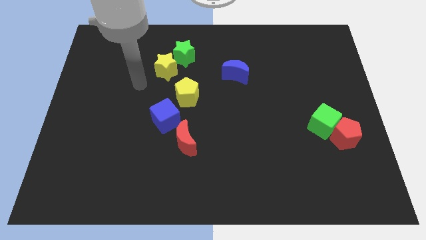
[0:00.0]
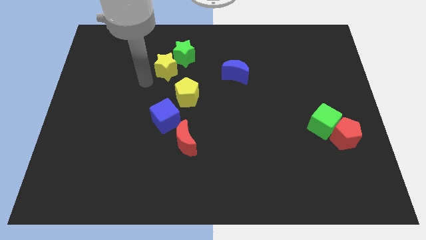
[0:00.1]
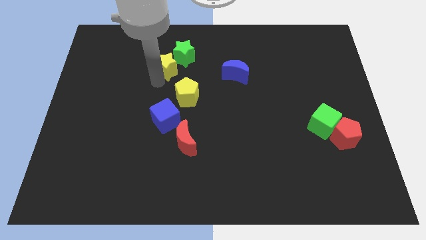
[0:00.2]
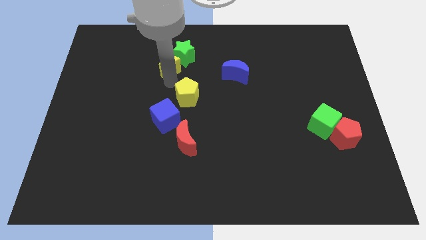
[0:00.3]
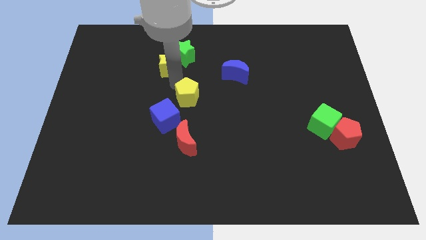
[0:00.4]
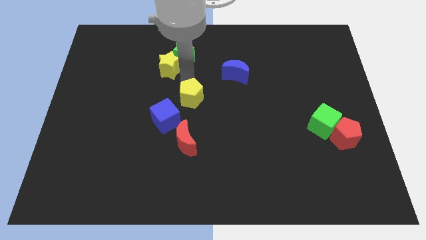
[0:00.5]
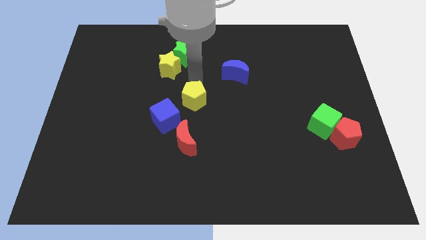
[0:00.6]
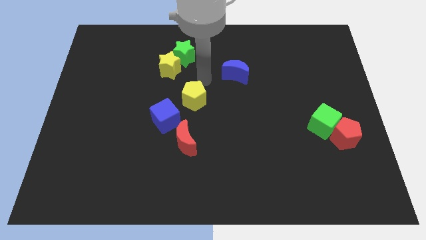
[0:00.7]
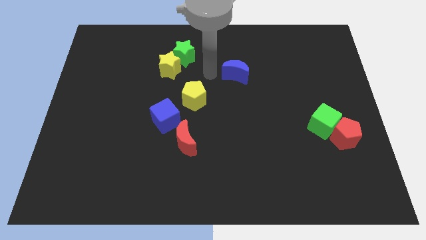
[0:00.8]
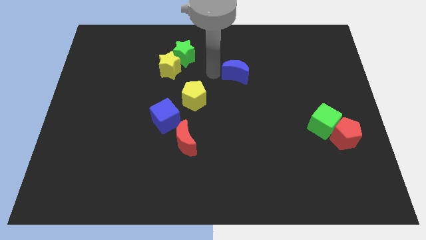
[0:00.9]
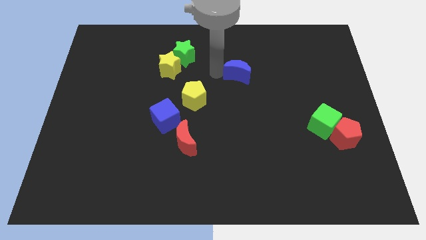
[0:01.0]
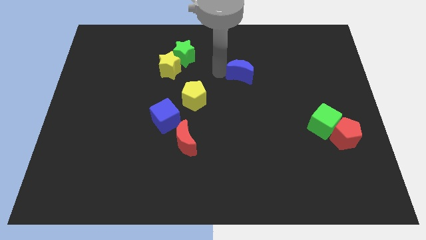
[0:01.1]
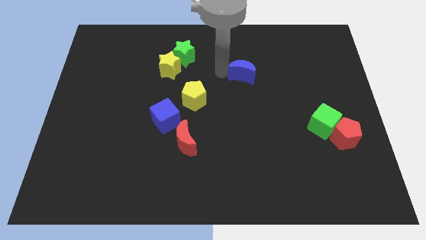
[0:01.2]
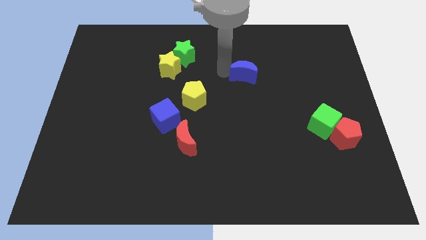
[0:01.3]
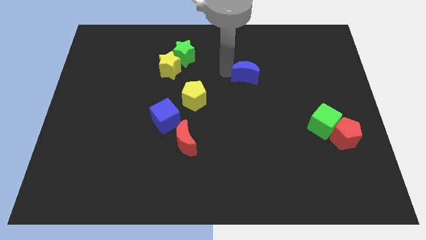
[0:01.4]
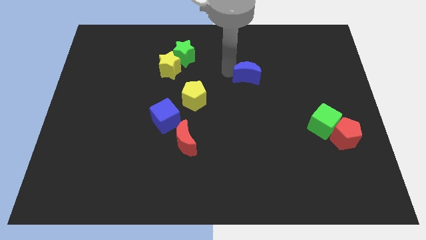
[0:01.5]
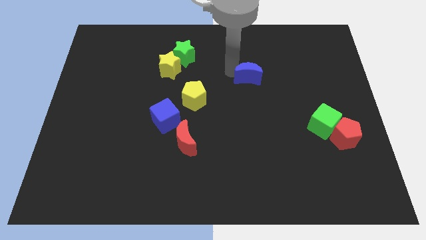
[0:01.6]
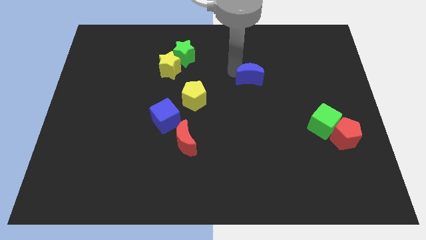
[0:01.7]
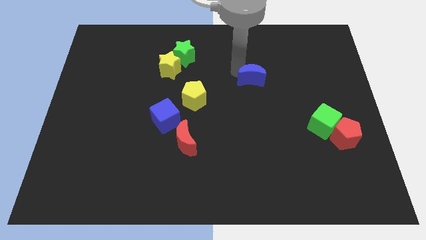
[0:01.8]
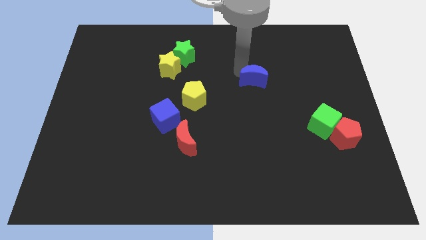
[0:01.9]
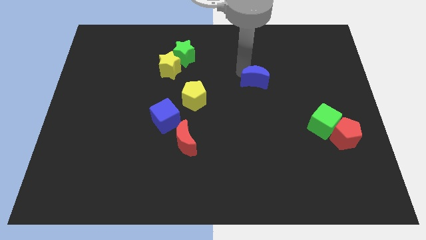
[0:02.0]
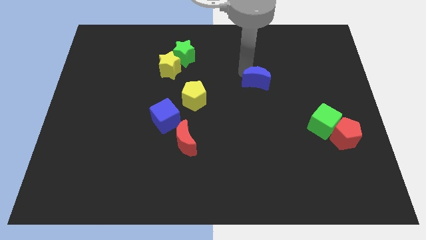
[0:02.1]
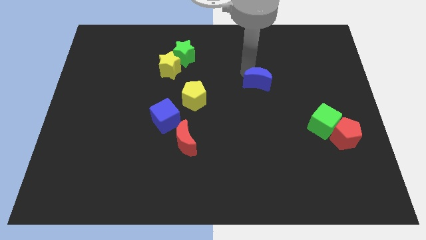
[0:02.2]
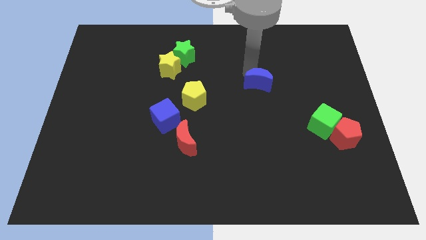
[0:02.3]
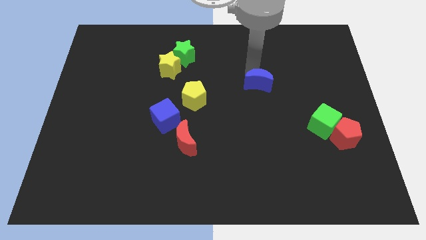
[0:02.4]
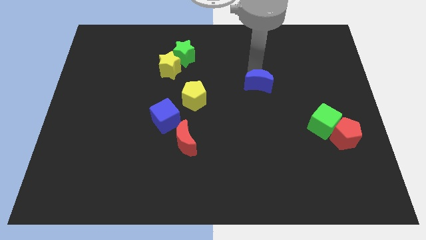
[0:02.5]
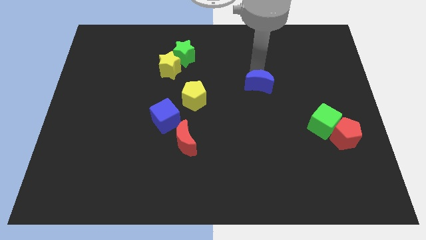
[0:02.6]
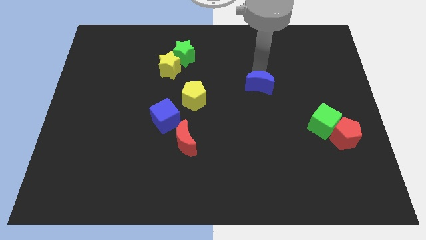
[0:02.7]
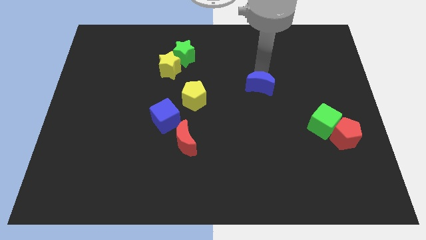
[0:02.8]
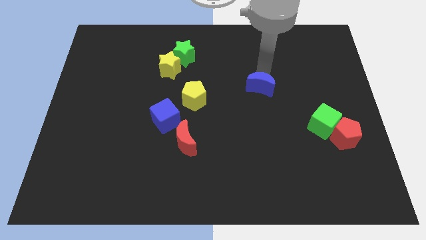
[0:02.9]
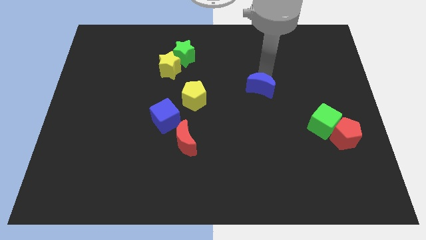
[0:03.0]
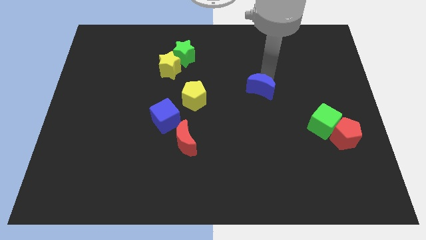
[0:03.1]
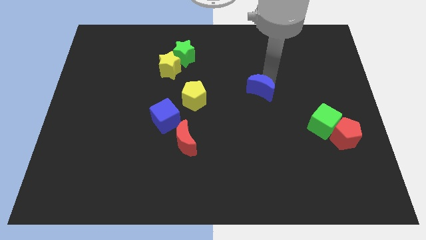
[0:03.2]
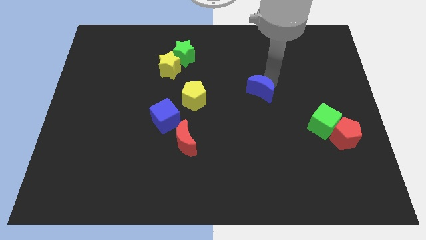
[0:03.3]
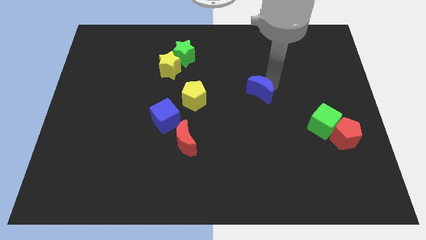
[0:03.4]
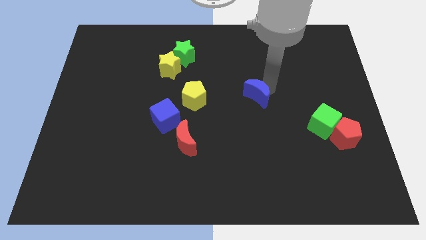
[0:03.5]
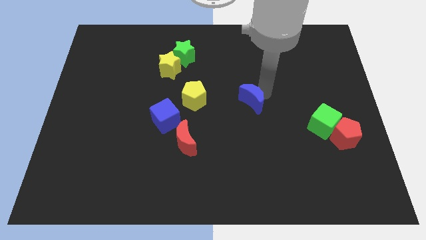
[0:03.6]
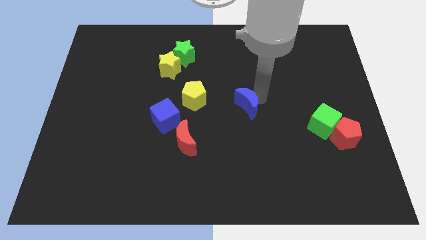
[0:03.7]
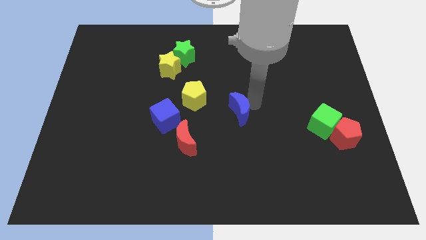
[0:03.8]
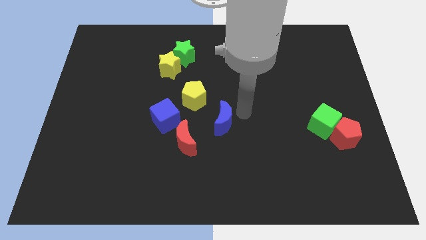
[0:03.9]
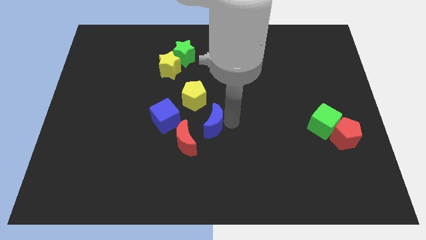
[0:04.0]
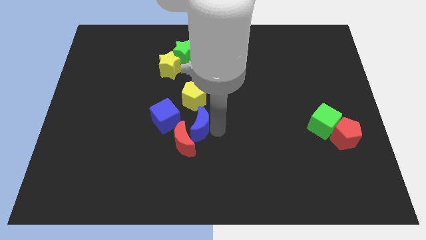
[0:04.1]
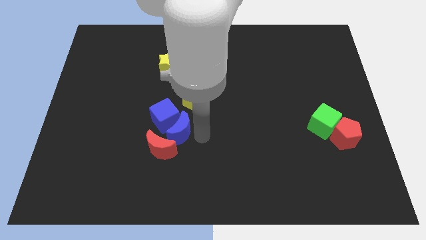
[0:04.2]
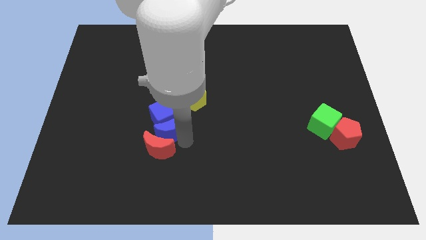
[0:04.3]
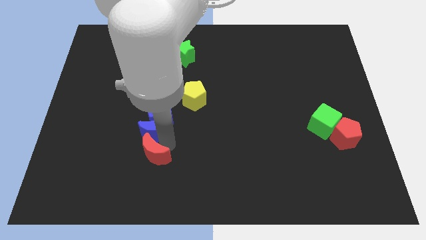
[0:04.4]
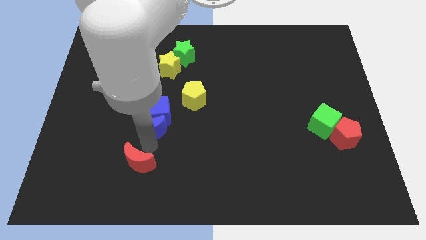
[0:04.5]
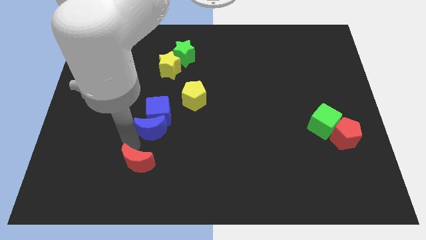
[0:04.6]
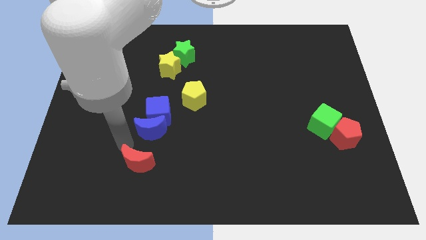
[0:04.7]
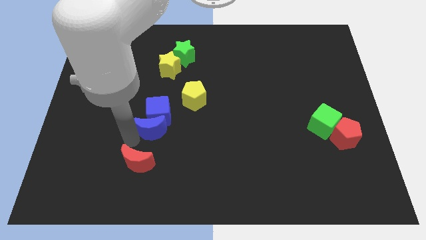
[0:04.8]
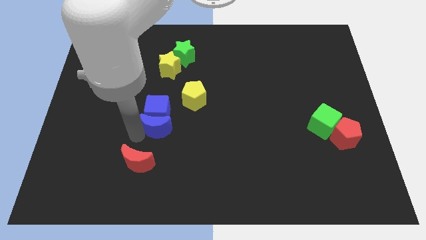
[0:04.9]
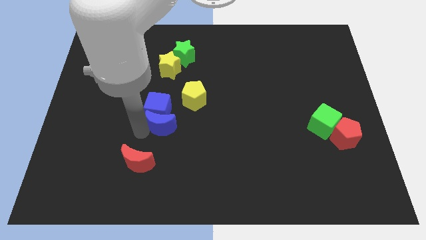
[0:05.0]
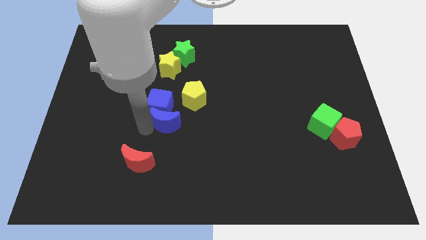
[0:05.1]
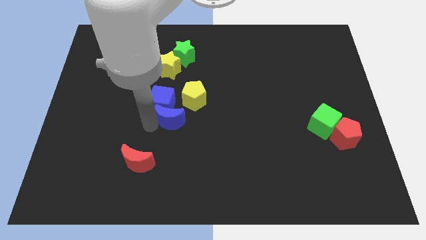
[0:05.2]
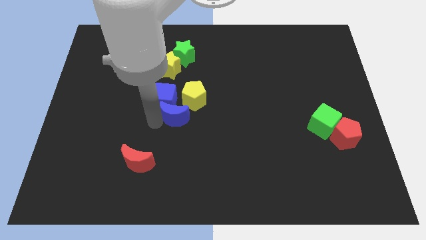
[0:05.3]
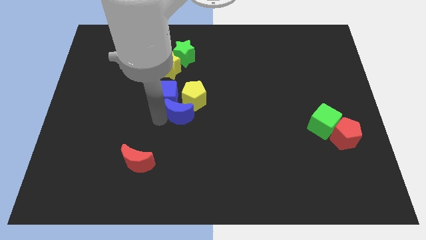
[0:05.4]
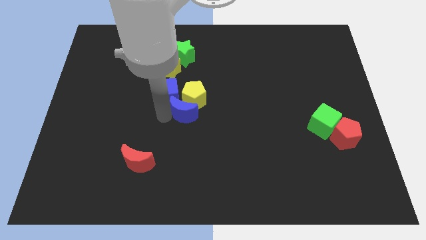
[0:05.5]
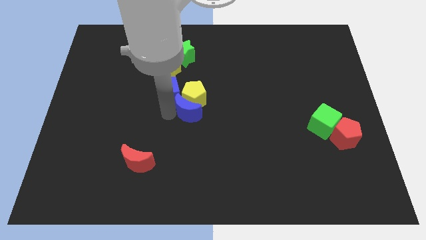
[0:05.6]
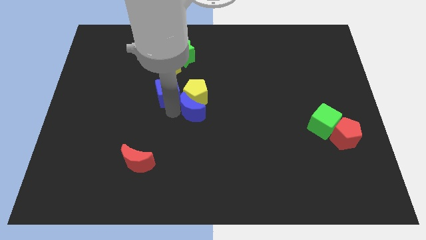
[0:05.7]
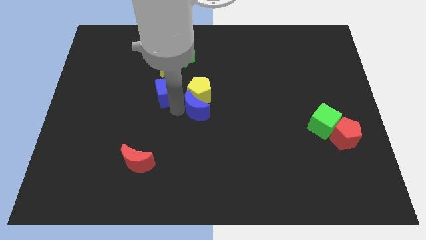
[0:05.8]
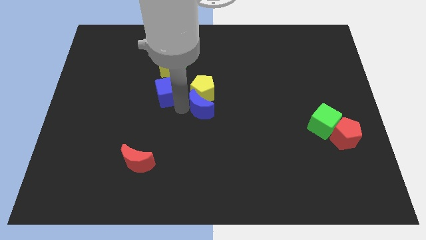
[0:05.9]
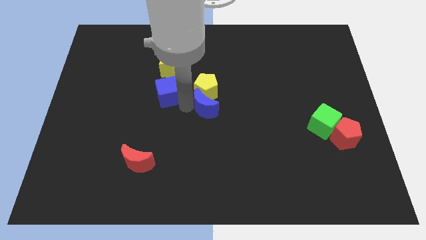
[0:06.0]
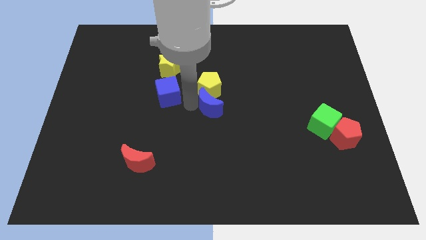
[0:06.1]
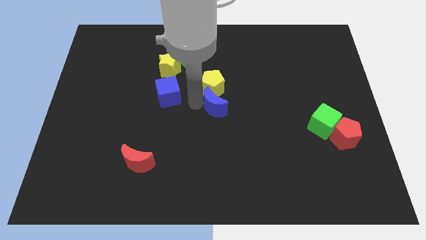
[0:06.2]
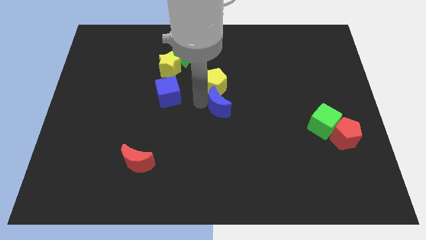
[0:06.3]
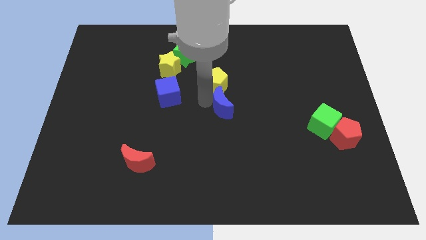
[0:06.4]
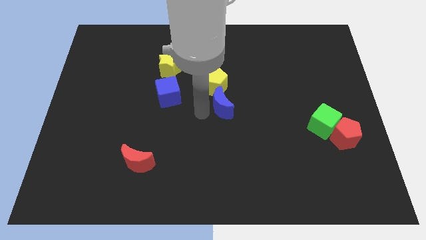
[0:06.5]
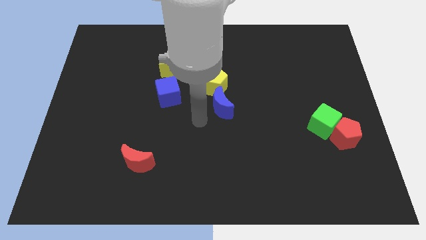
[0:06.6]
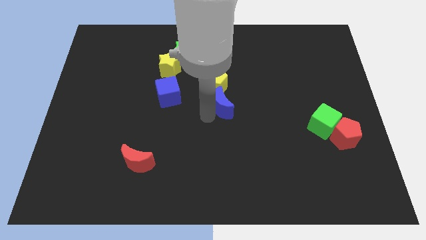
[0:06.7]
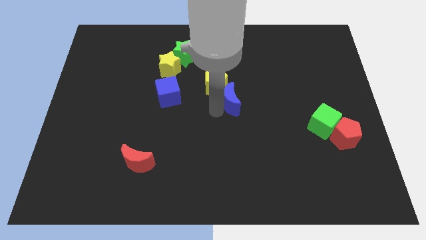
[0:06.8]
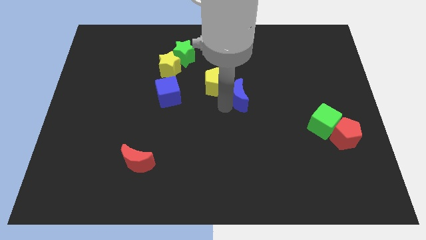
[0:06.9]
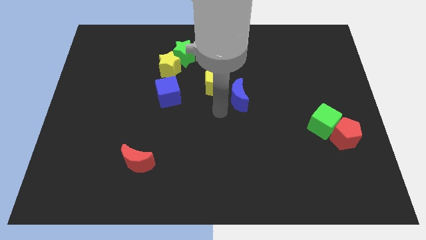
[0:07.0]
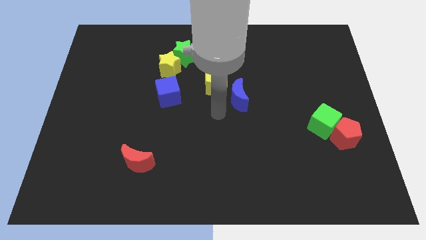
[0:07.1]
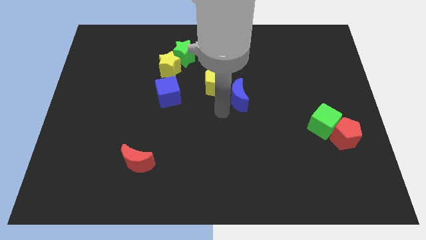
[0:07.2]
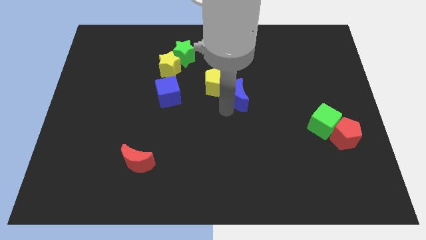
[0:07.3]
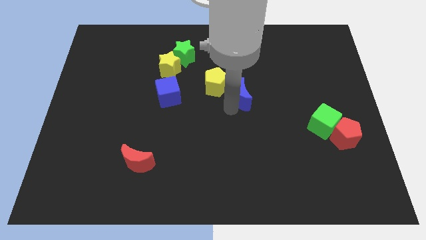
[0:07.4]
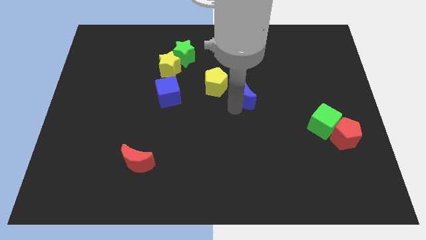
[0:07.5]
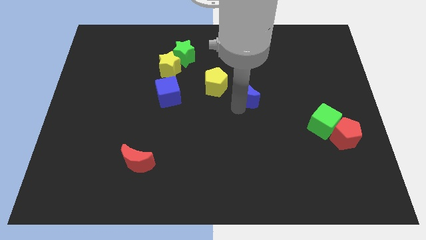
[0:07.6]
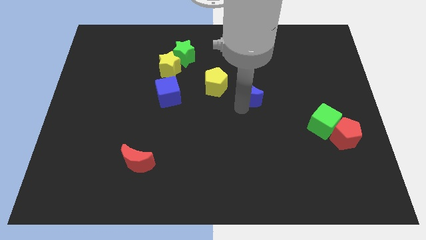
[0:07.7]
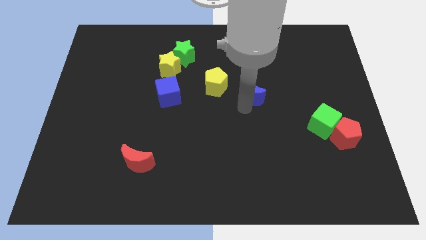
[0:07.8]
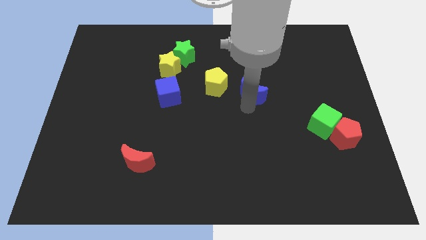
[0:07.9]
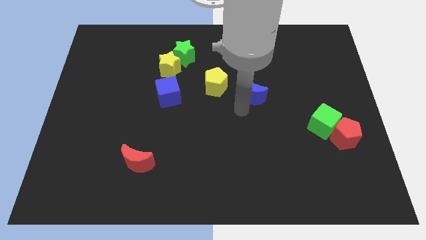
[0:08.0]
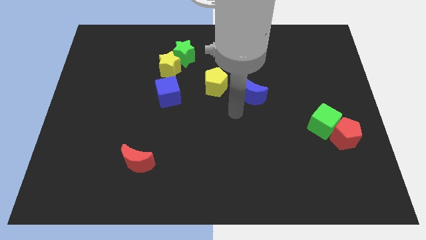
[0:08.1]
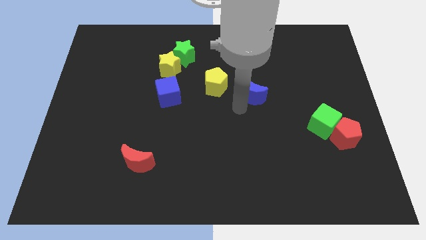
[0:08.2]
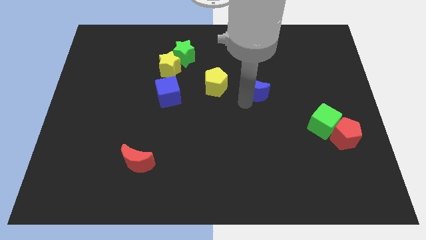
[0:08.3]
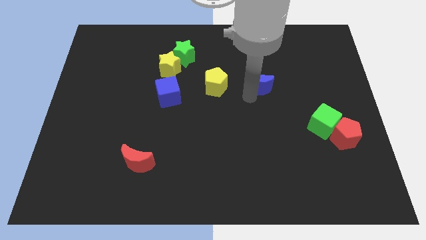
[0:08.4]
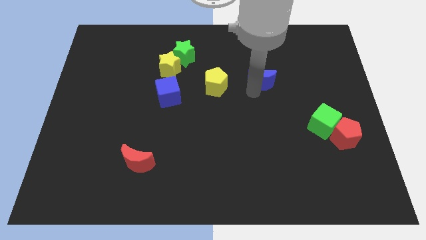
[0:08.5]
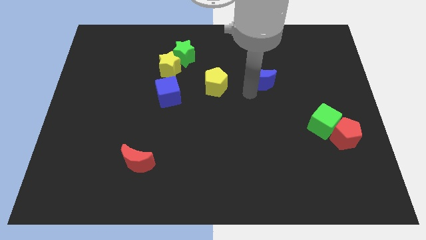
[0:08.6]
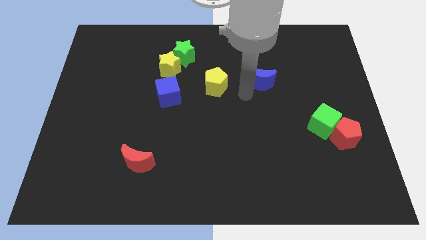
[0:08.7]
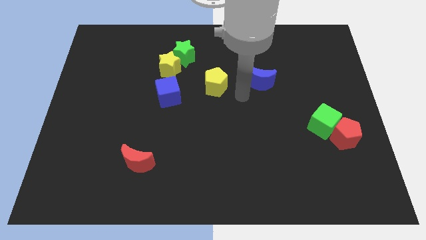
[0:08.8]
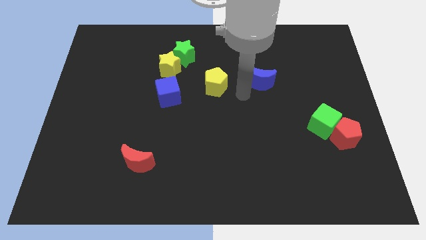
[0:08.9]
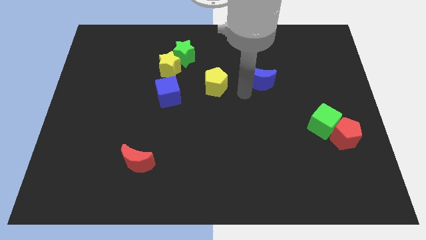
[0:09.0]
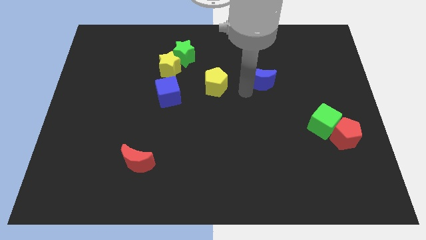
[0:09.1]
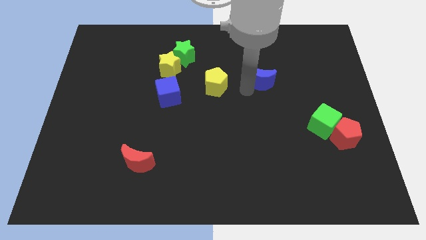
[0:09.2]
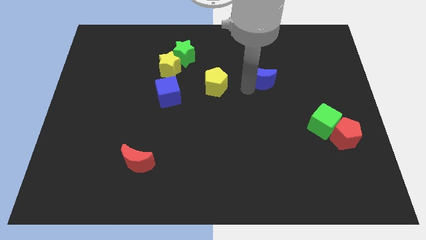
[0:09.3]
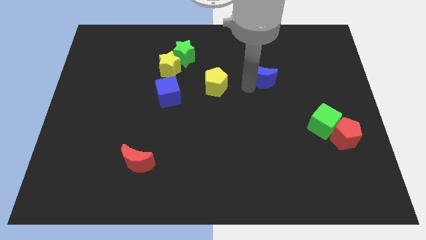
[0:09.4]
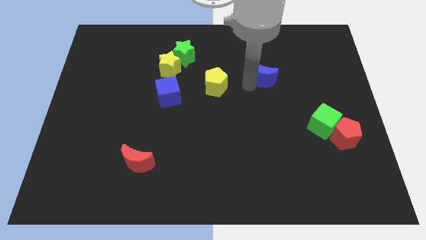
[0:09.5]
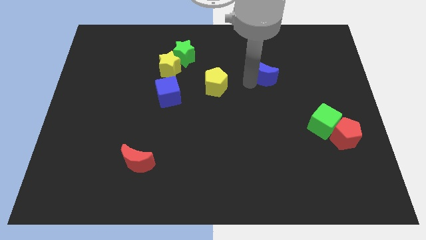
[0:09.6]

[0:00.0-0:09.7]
slightly move the blue moon to the right
